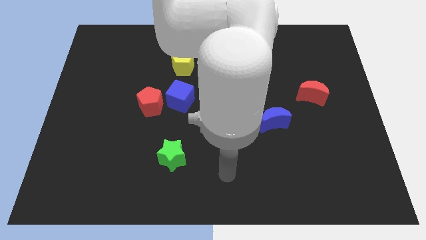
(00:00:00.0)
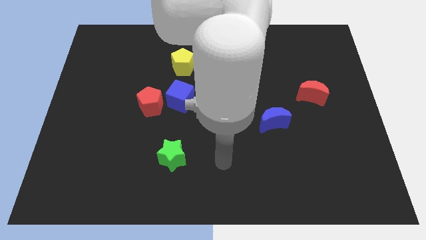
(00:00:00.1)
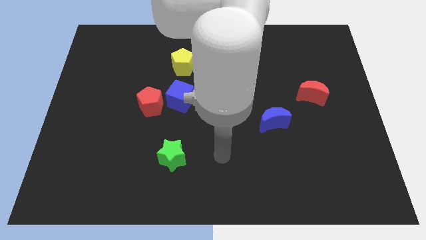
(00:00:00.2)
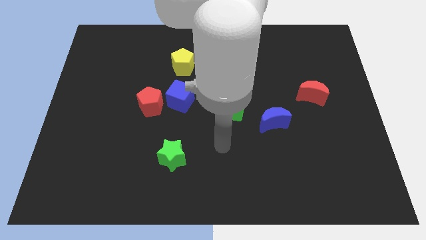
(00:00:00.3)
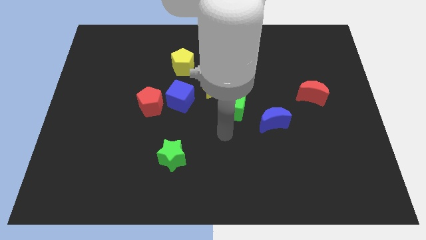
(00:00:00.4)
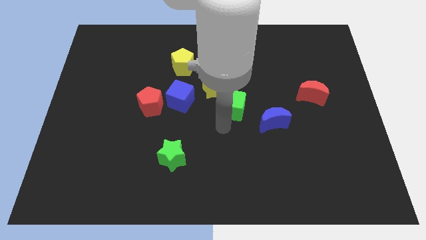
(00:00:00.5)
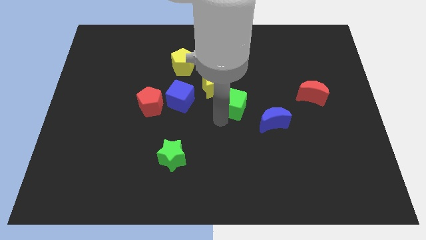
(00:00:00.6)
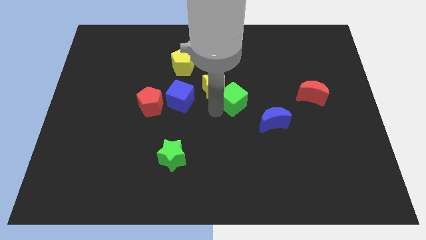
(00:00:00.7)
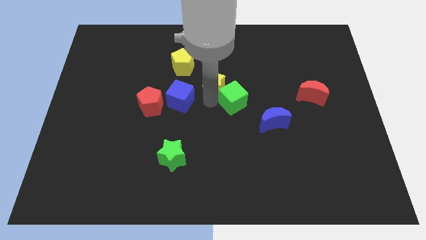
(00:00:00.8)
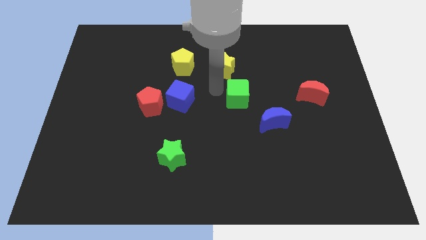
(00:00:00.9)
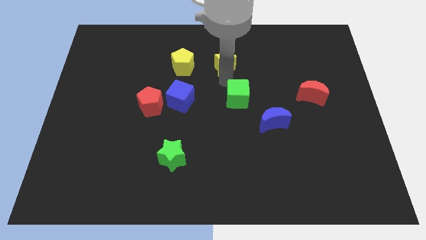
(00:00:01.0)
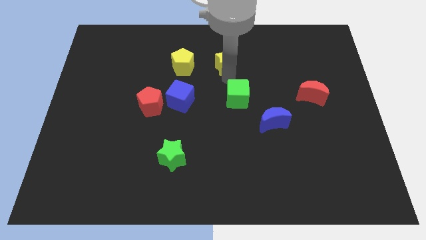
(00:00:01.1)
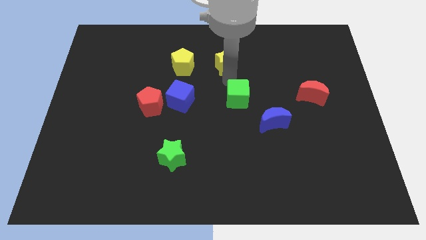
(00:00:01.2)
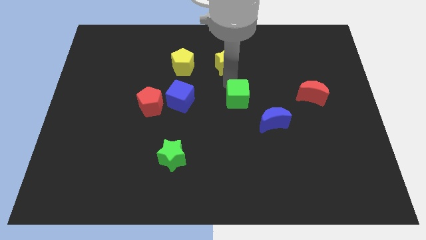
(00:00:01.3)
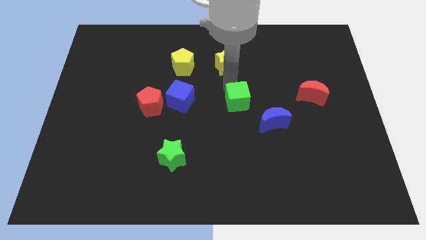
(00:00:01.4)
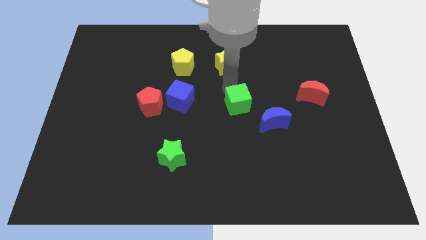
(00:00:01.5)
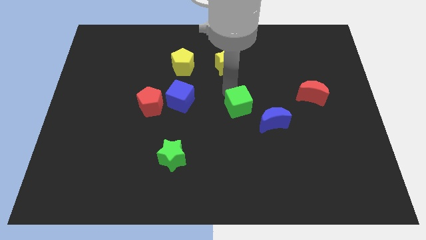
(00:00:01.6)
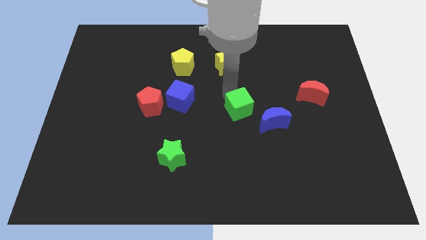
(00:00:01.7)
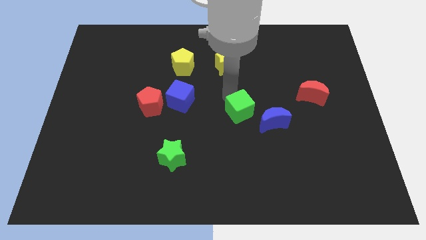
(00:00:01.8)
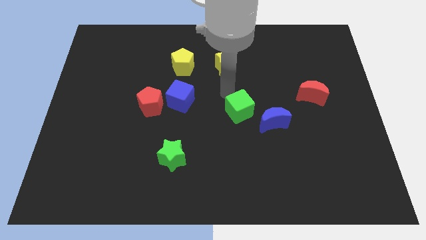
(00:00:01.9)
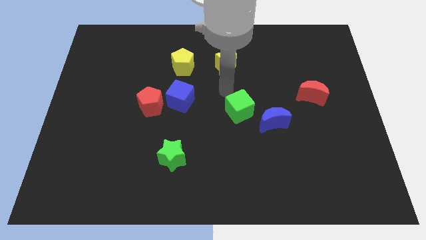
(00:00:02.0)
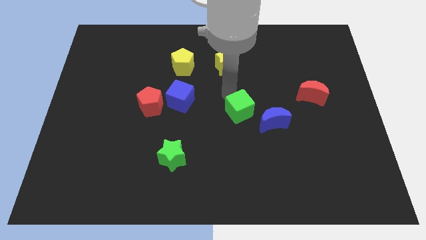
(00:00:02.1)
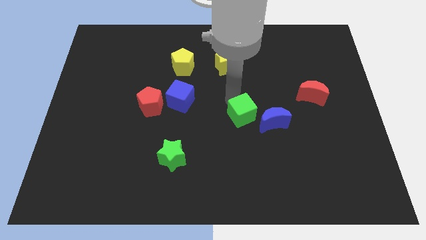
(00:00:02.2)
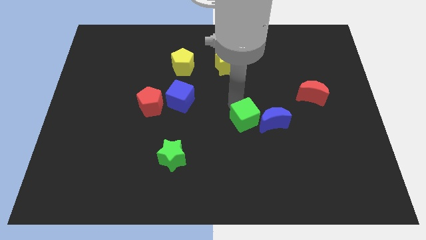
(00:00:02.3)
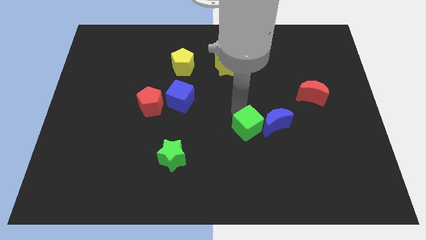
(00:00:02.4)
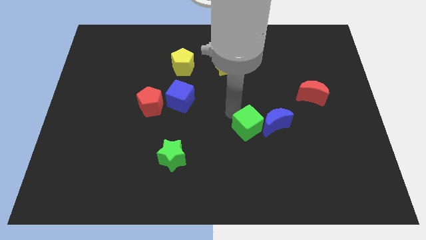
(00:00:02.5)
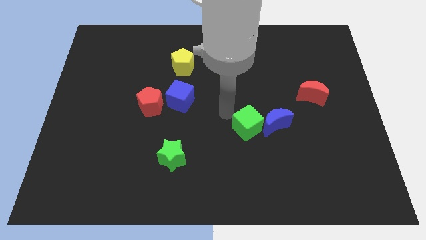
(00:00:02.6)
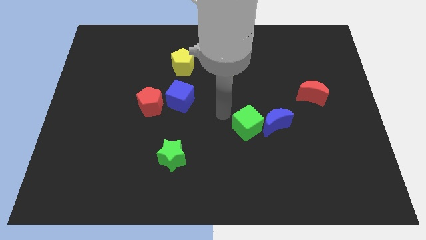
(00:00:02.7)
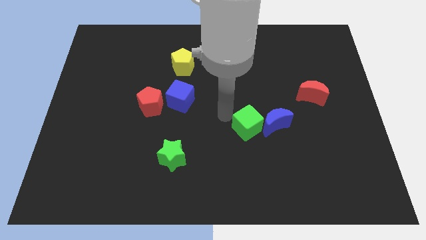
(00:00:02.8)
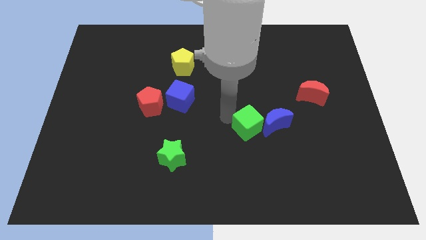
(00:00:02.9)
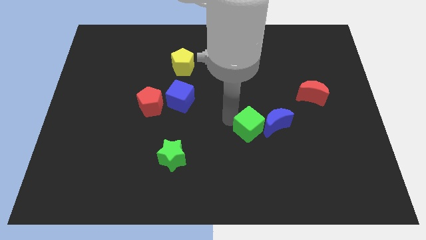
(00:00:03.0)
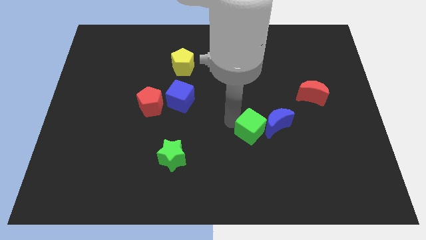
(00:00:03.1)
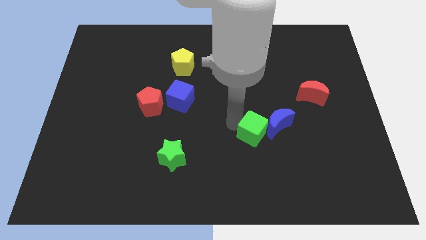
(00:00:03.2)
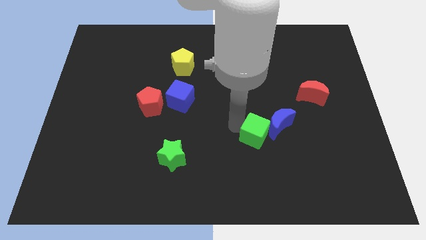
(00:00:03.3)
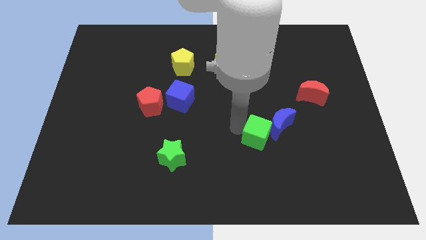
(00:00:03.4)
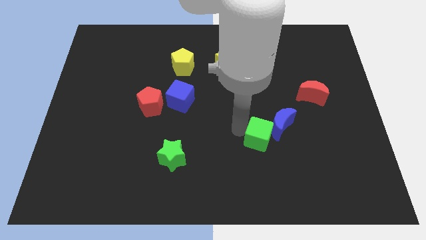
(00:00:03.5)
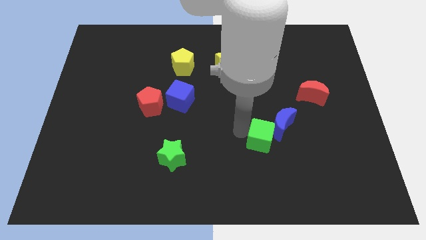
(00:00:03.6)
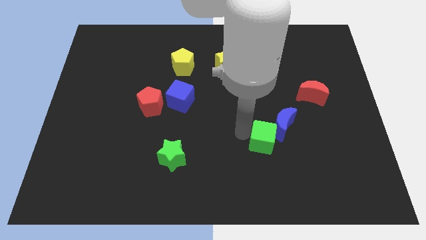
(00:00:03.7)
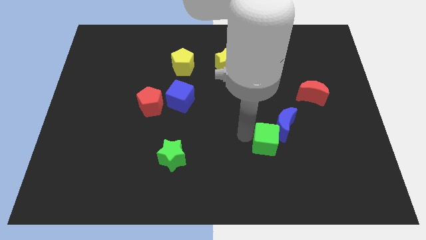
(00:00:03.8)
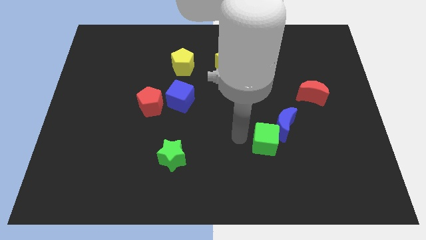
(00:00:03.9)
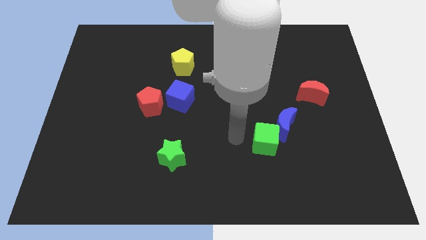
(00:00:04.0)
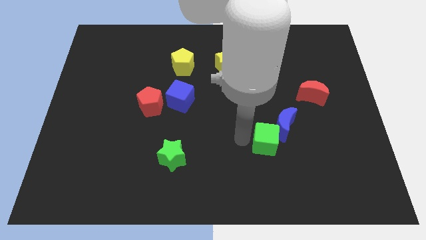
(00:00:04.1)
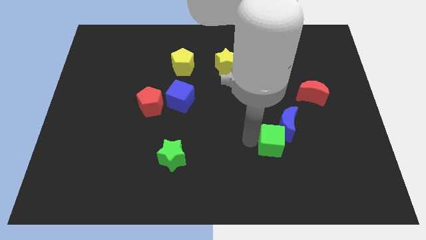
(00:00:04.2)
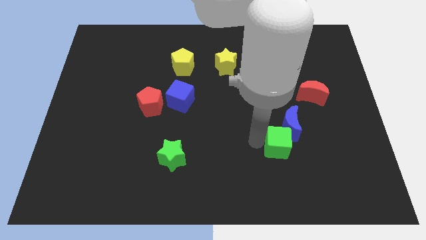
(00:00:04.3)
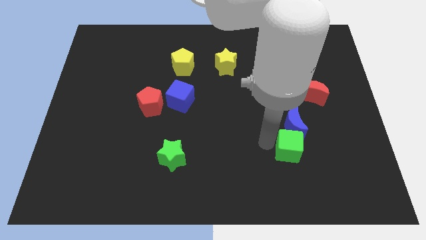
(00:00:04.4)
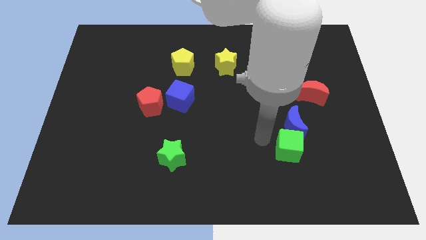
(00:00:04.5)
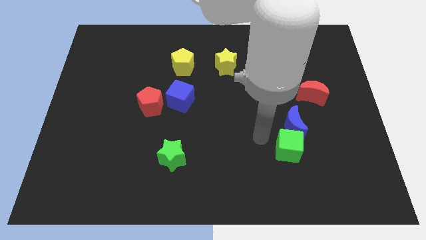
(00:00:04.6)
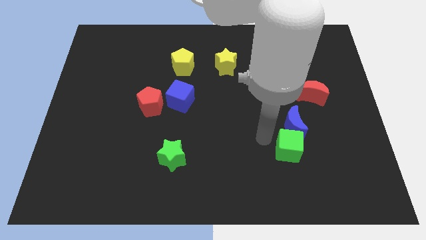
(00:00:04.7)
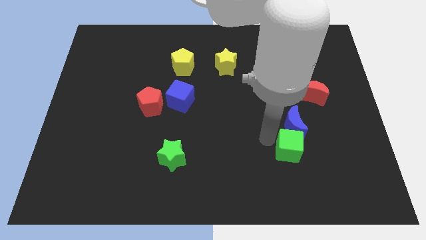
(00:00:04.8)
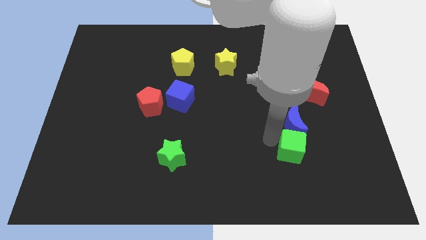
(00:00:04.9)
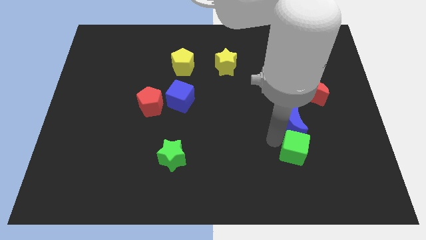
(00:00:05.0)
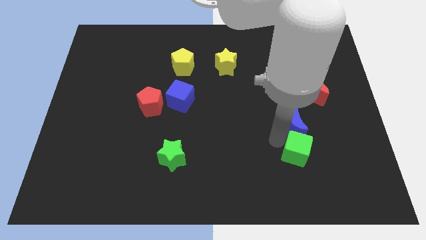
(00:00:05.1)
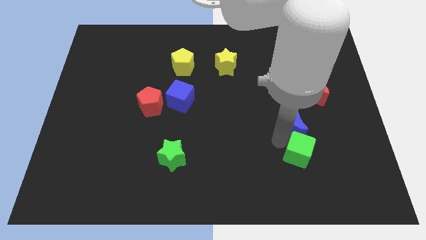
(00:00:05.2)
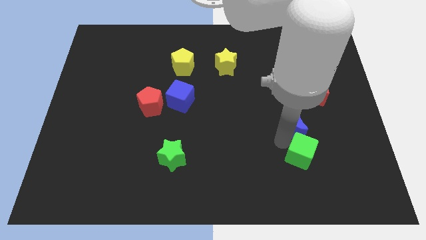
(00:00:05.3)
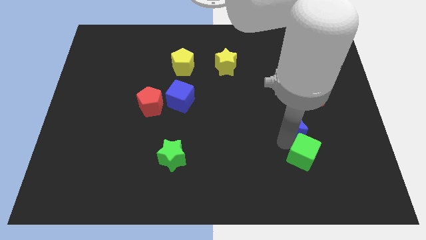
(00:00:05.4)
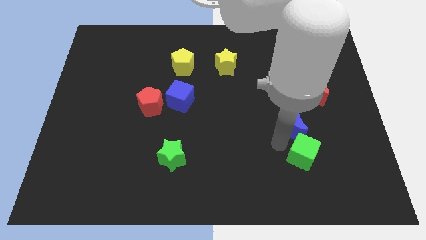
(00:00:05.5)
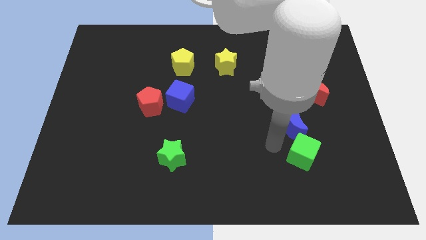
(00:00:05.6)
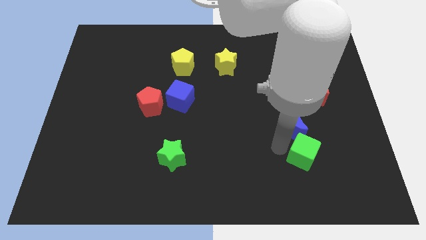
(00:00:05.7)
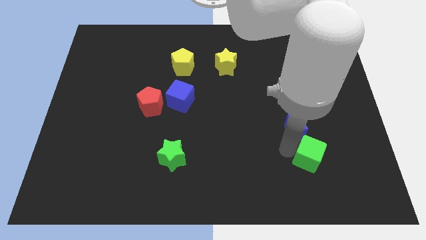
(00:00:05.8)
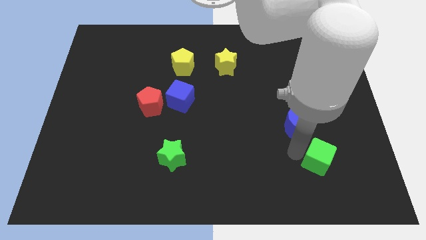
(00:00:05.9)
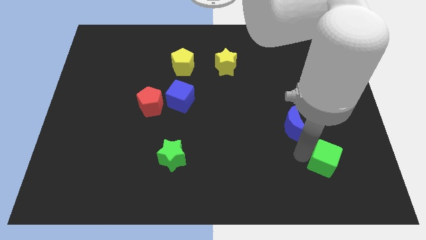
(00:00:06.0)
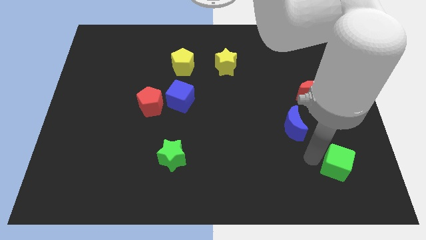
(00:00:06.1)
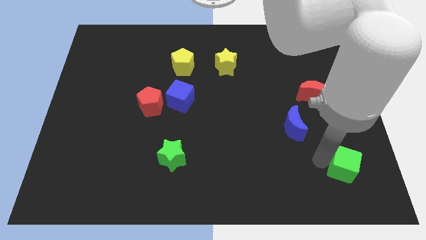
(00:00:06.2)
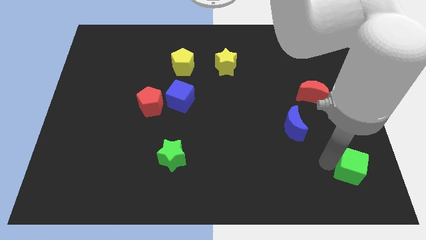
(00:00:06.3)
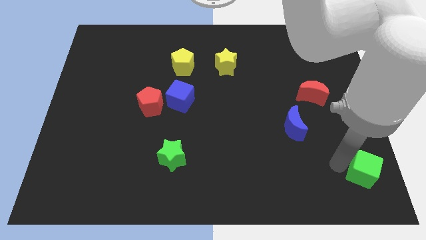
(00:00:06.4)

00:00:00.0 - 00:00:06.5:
put the green cube to the bottom right of the board

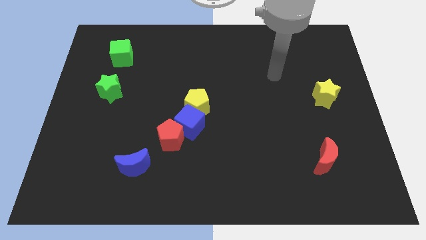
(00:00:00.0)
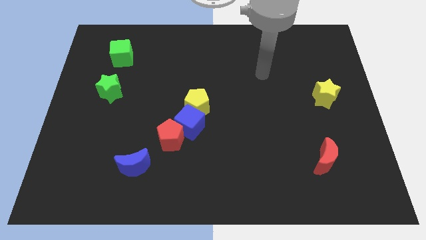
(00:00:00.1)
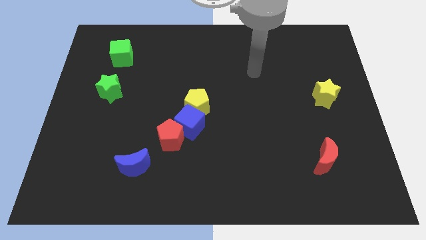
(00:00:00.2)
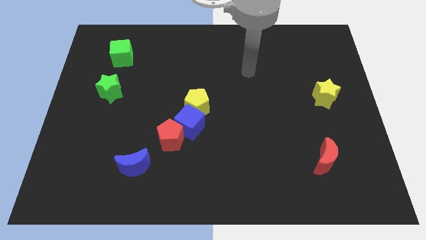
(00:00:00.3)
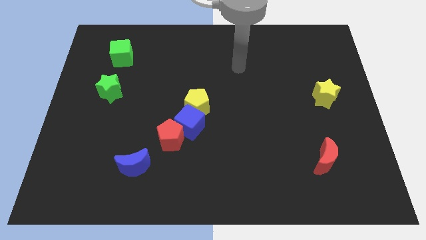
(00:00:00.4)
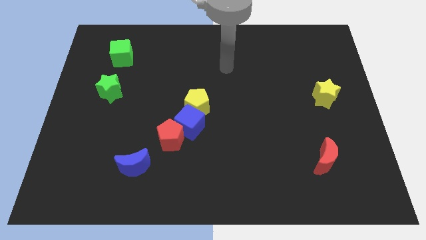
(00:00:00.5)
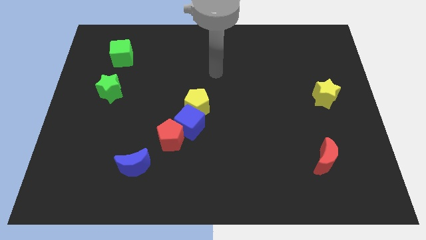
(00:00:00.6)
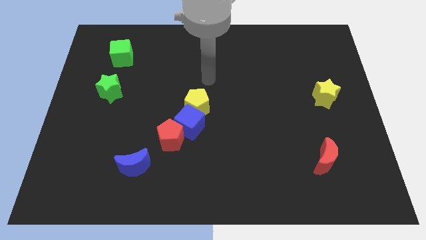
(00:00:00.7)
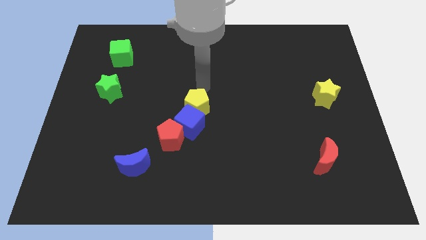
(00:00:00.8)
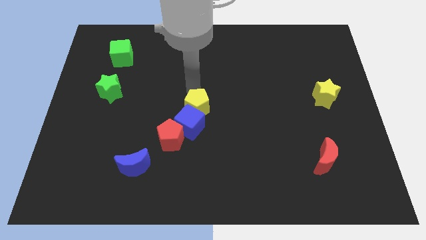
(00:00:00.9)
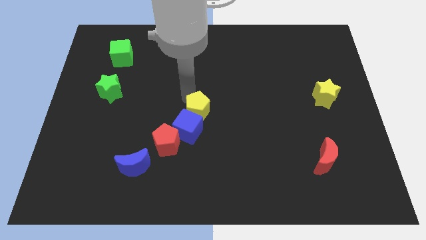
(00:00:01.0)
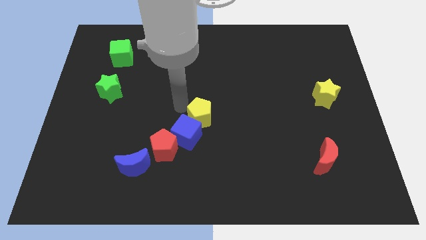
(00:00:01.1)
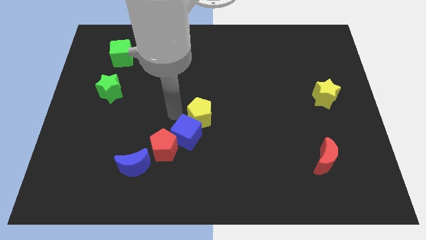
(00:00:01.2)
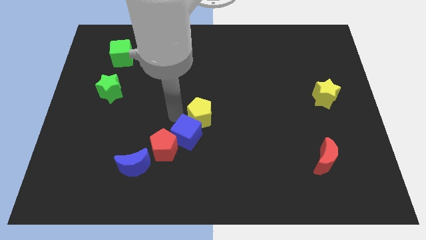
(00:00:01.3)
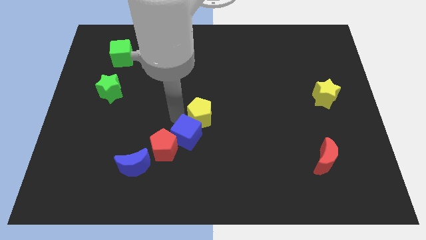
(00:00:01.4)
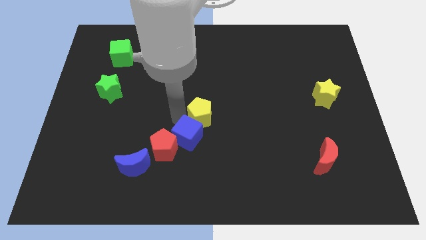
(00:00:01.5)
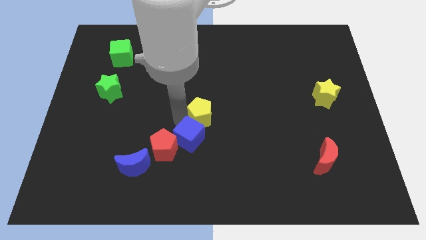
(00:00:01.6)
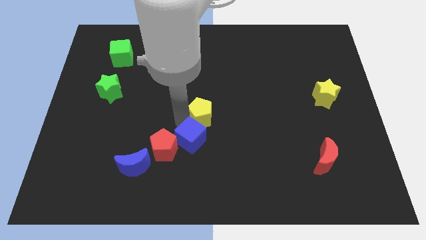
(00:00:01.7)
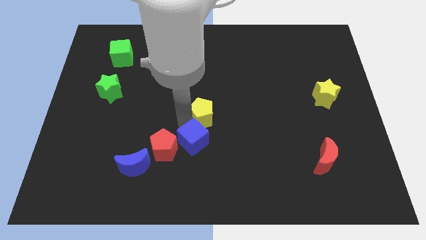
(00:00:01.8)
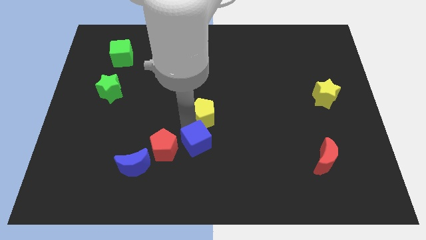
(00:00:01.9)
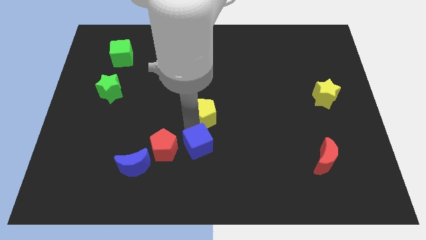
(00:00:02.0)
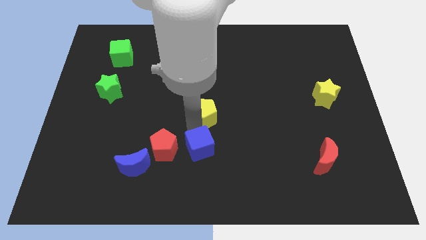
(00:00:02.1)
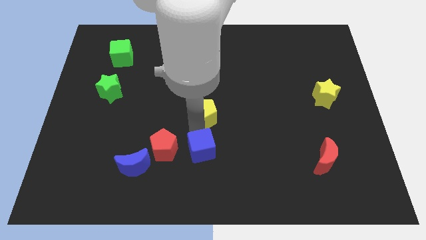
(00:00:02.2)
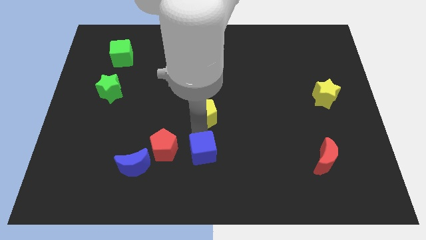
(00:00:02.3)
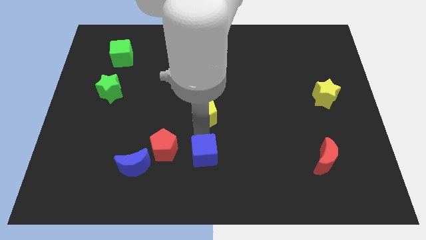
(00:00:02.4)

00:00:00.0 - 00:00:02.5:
move the blue cube to the bottom
